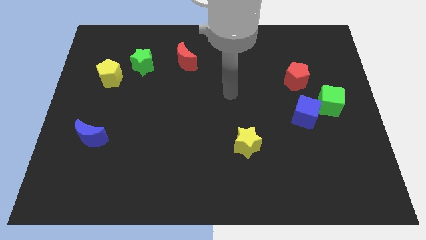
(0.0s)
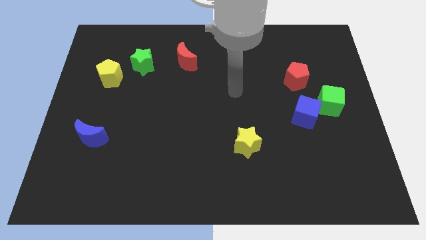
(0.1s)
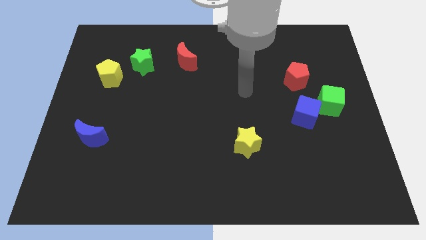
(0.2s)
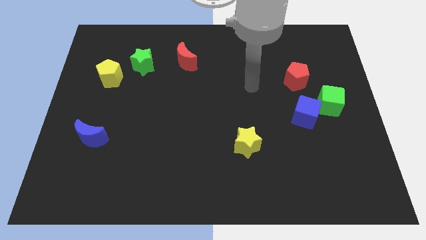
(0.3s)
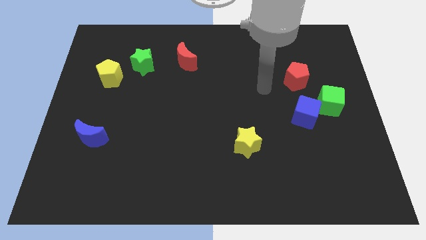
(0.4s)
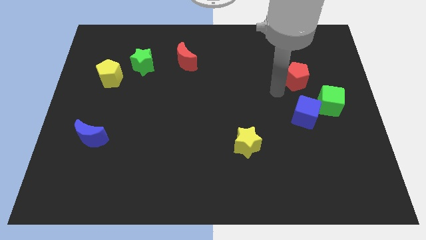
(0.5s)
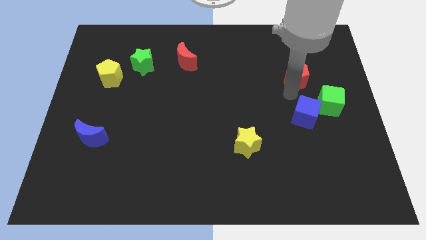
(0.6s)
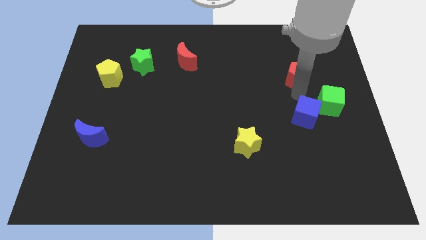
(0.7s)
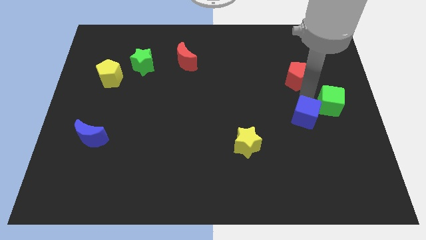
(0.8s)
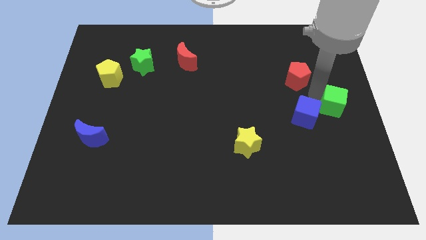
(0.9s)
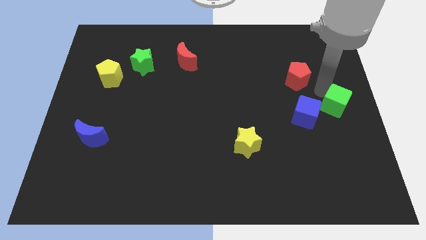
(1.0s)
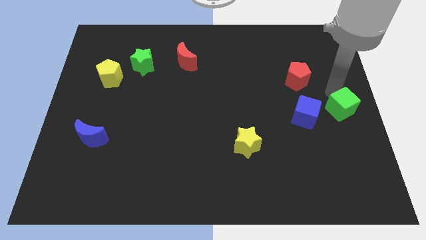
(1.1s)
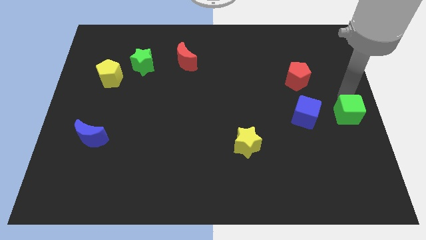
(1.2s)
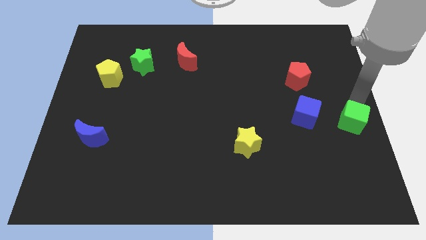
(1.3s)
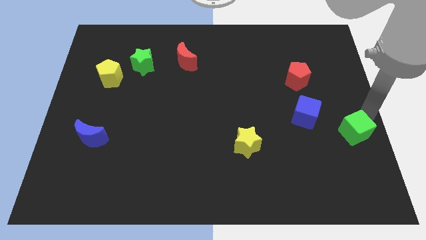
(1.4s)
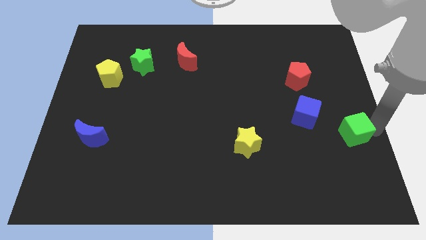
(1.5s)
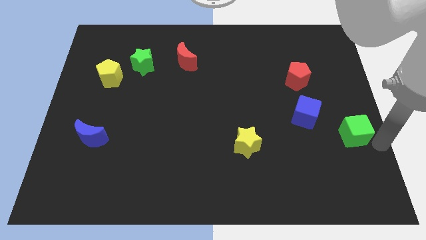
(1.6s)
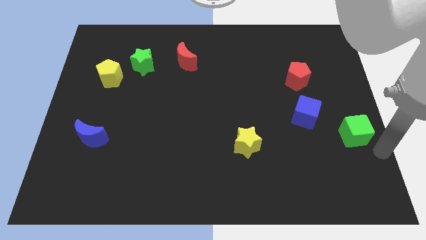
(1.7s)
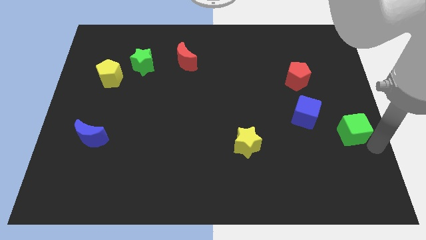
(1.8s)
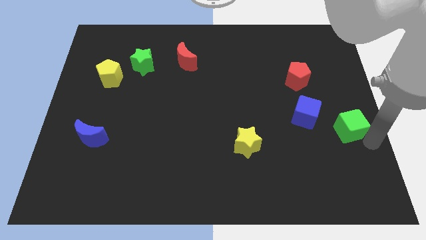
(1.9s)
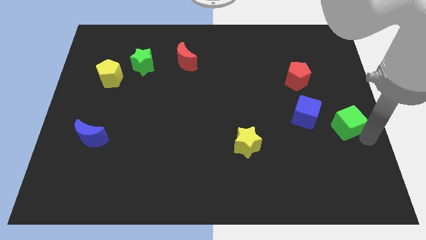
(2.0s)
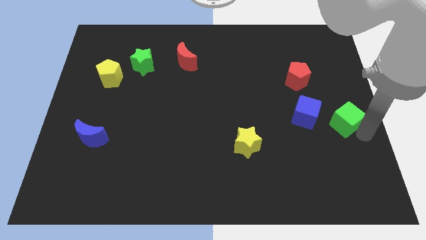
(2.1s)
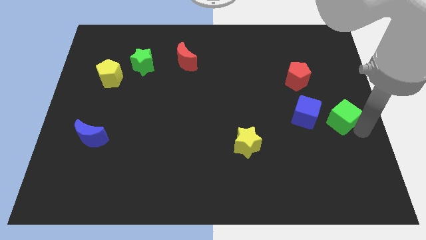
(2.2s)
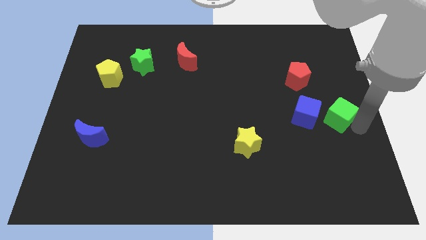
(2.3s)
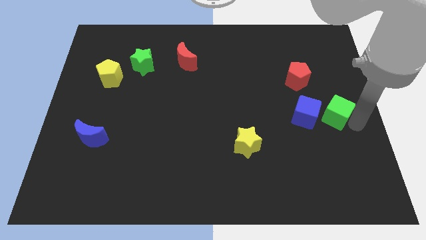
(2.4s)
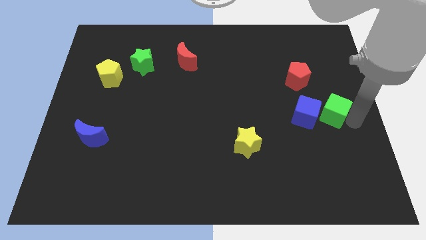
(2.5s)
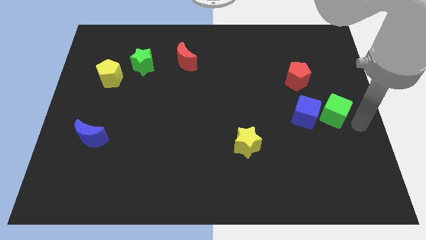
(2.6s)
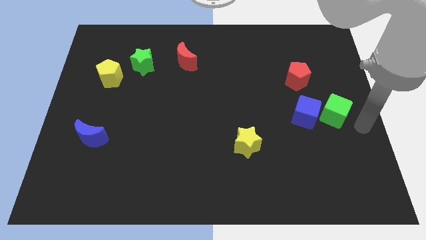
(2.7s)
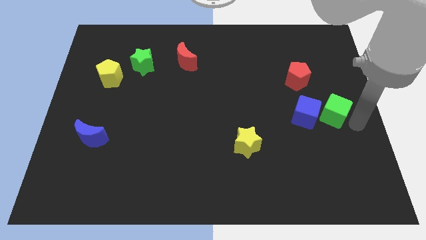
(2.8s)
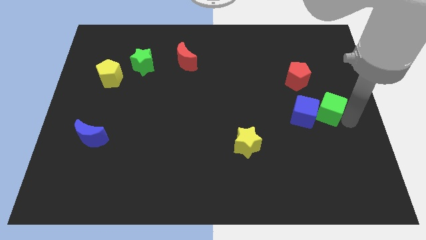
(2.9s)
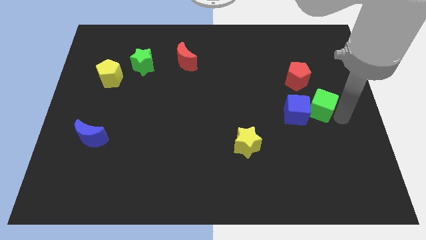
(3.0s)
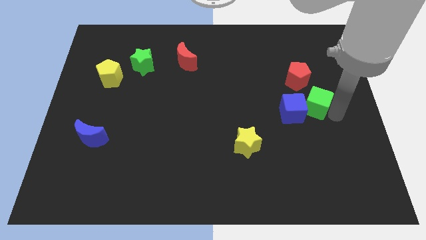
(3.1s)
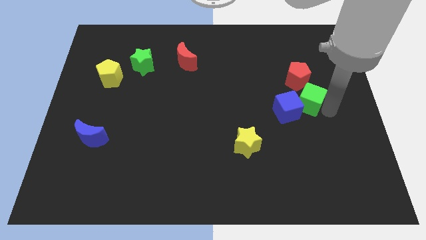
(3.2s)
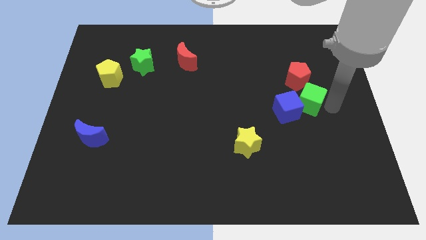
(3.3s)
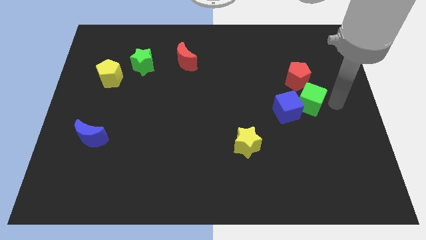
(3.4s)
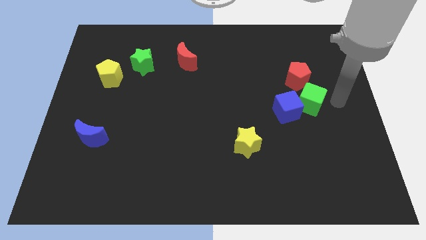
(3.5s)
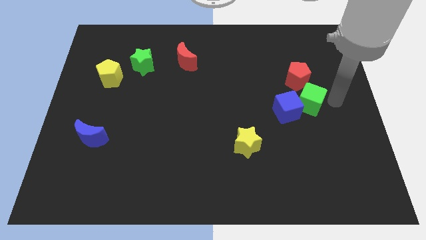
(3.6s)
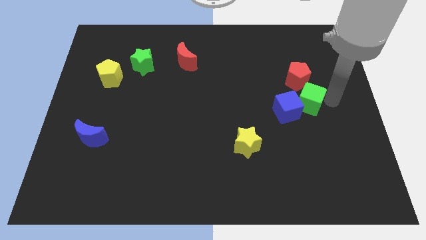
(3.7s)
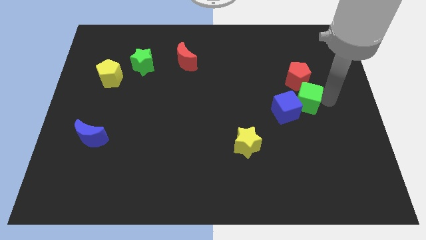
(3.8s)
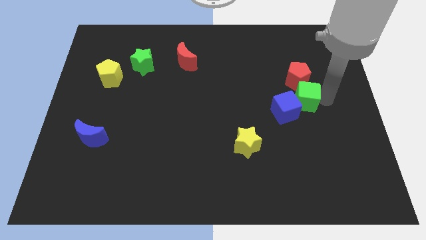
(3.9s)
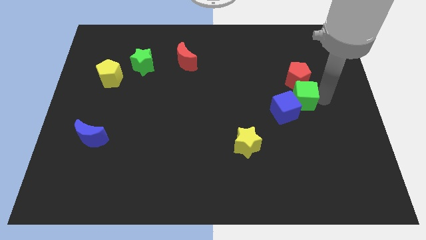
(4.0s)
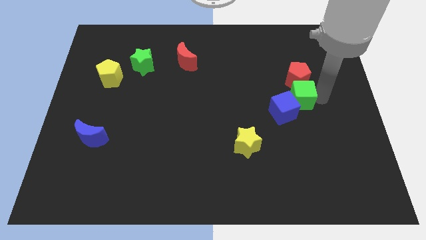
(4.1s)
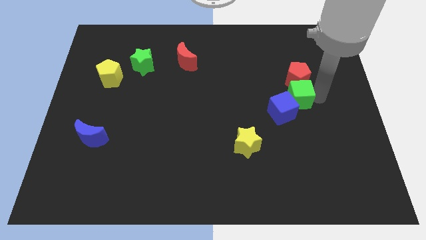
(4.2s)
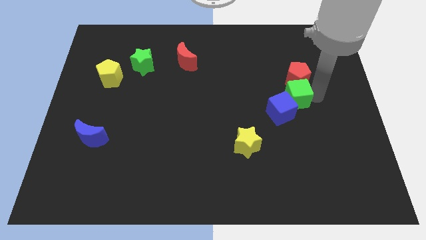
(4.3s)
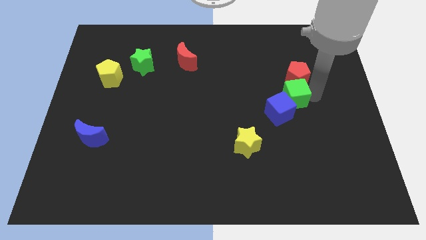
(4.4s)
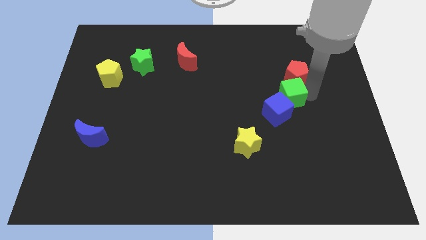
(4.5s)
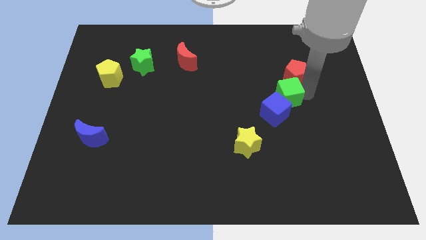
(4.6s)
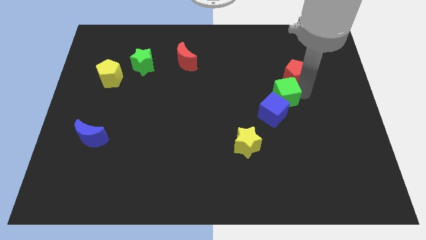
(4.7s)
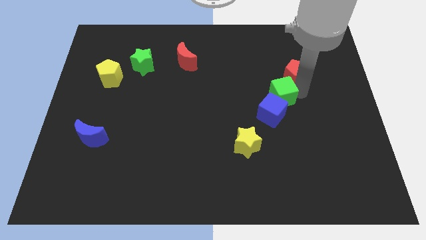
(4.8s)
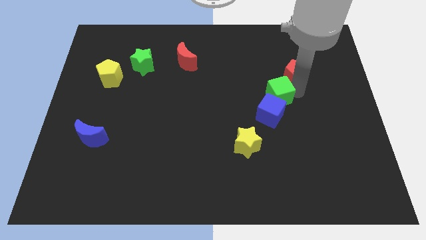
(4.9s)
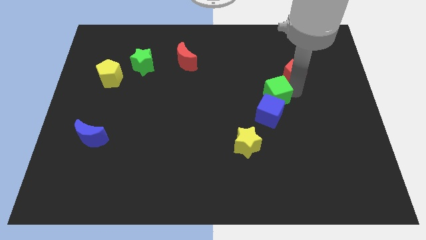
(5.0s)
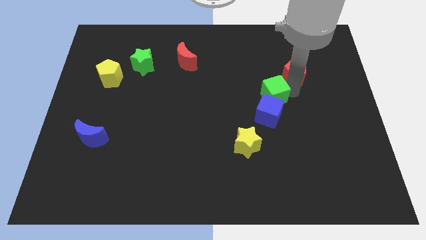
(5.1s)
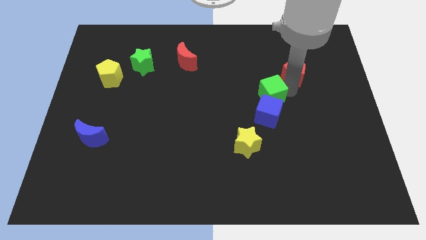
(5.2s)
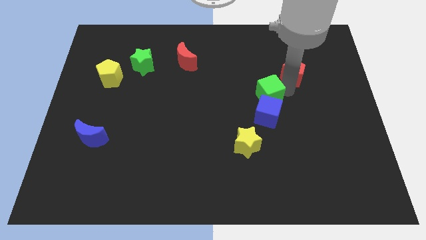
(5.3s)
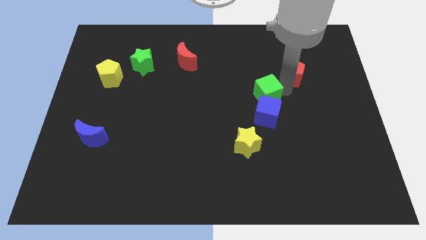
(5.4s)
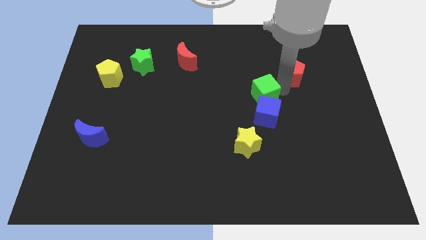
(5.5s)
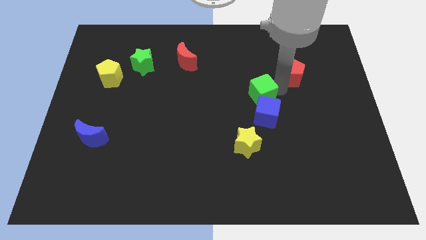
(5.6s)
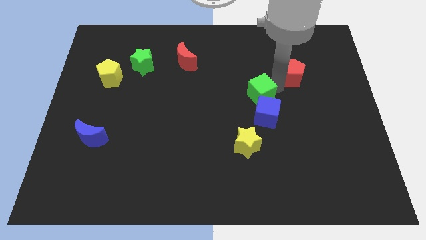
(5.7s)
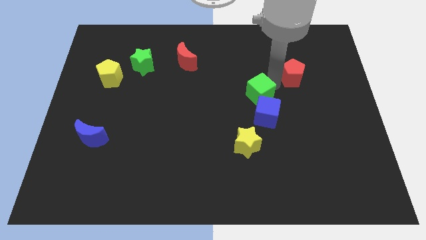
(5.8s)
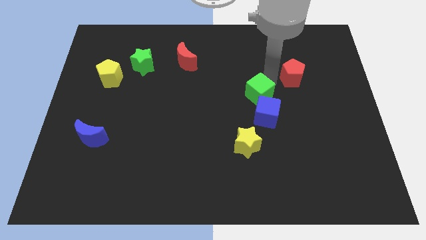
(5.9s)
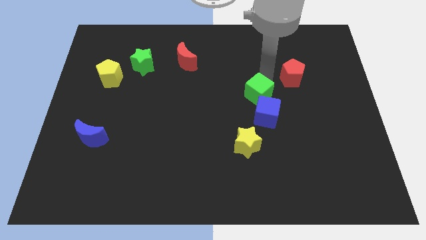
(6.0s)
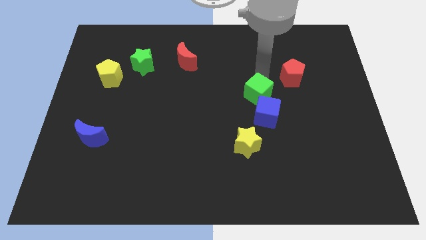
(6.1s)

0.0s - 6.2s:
push the green cube above the yellow star

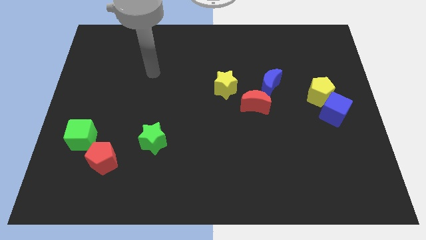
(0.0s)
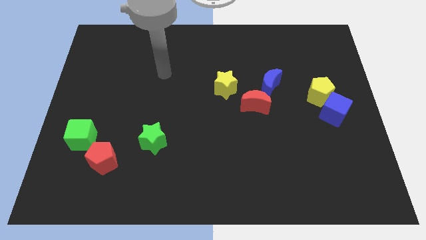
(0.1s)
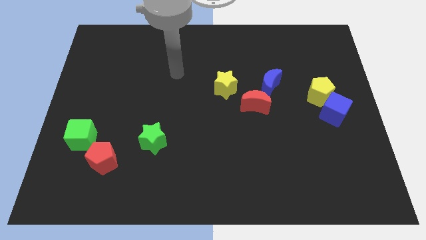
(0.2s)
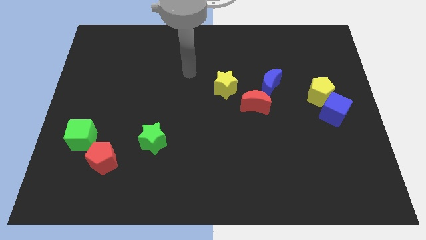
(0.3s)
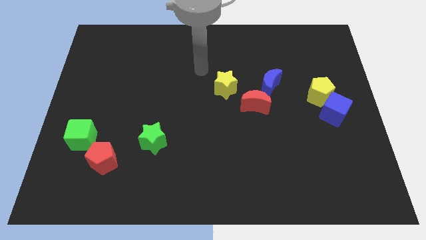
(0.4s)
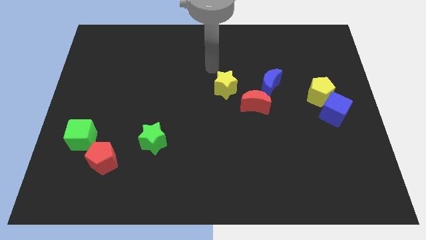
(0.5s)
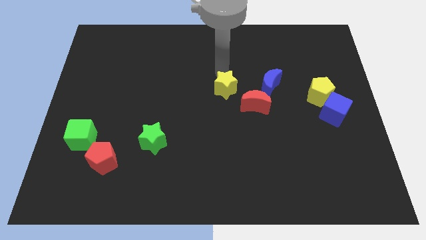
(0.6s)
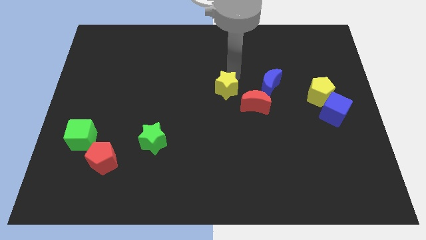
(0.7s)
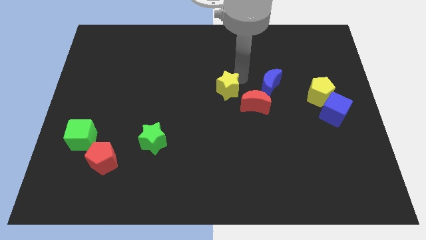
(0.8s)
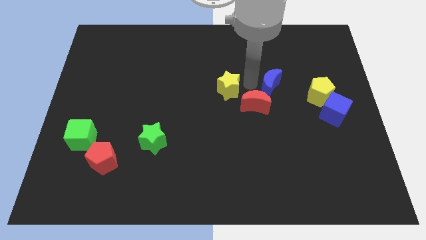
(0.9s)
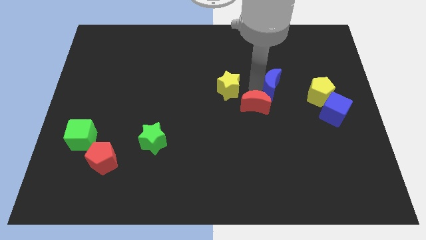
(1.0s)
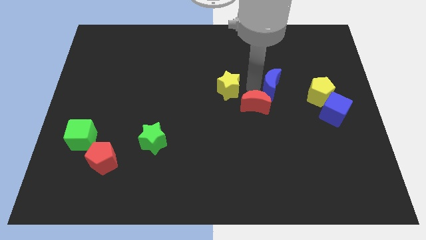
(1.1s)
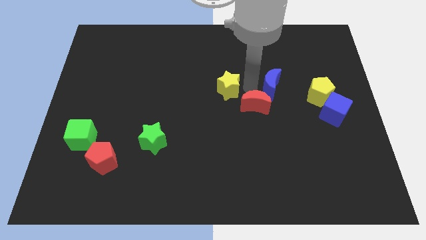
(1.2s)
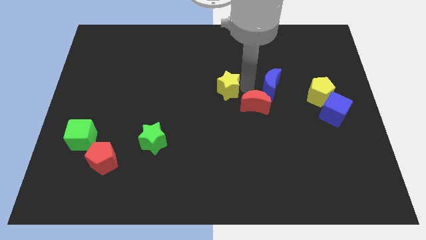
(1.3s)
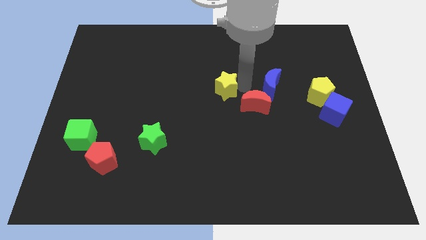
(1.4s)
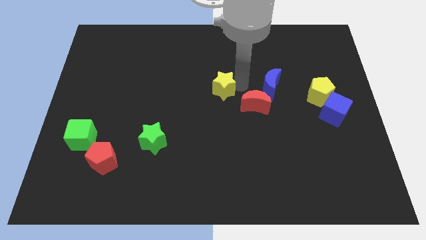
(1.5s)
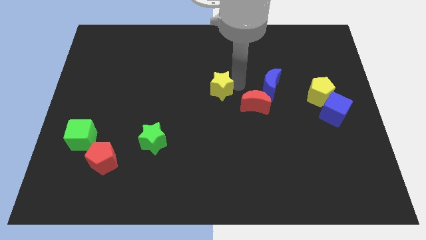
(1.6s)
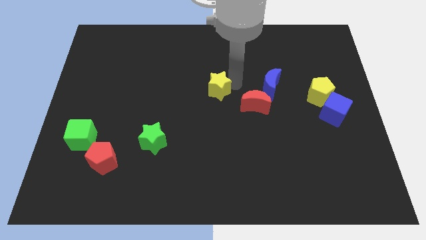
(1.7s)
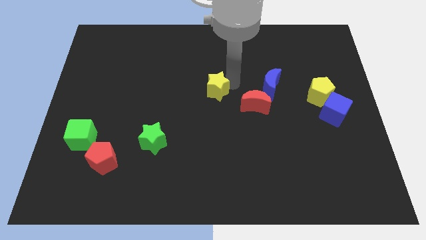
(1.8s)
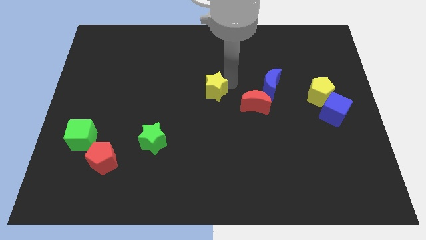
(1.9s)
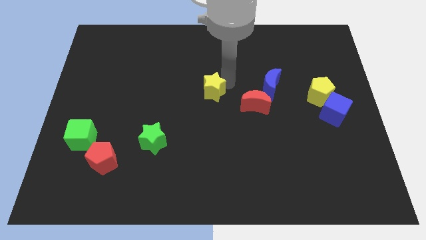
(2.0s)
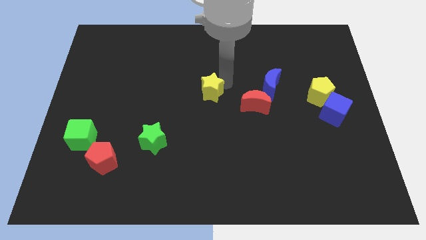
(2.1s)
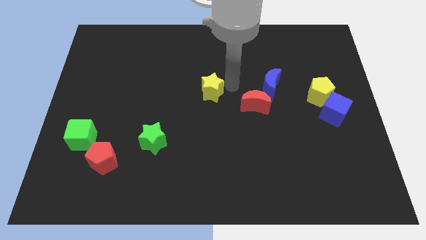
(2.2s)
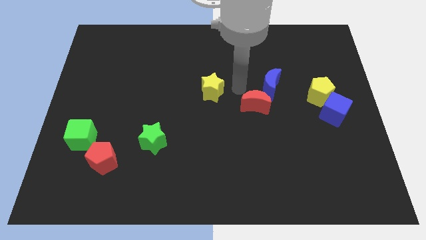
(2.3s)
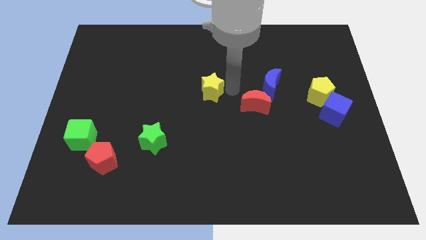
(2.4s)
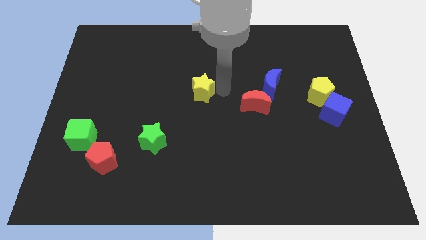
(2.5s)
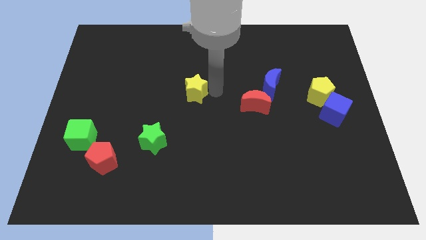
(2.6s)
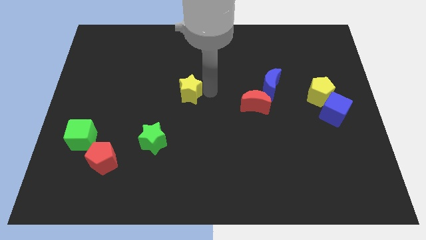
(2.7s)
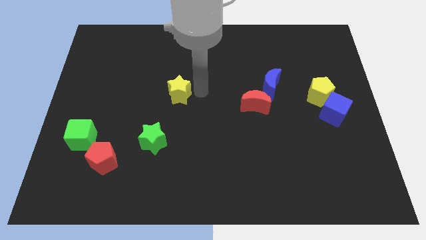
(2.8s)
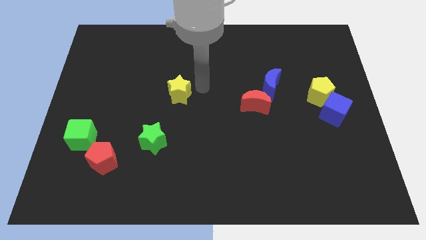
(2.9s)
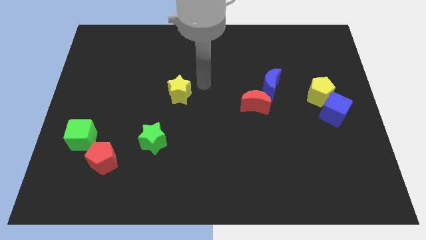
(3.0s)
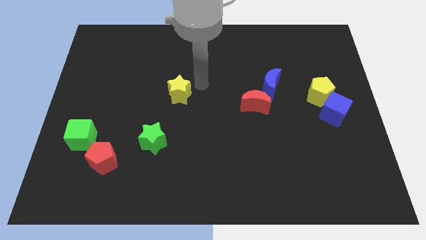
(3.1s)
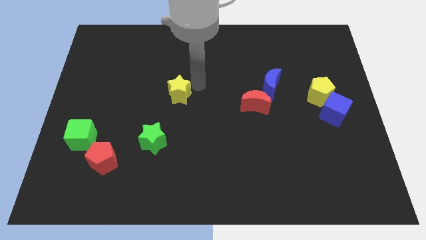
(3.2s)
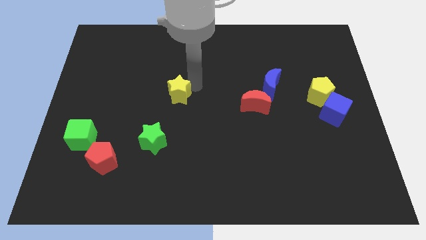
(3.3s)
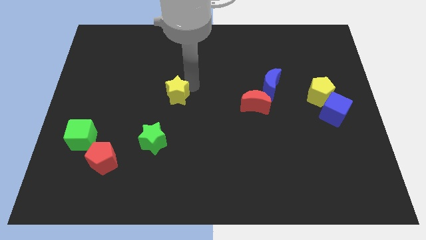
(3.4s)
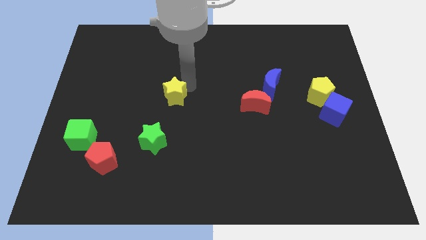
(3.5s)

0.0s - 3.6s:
move the yellow star to the top side of the green star
